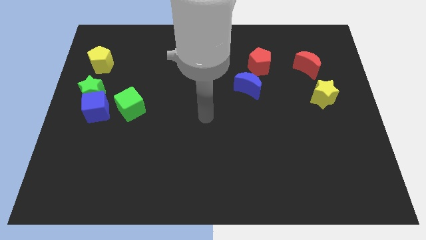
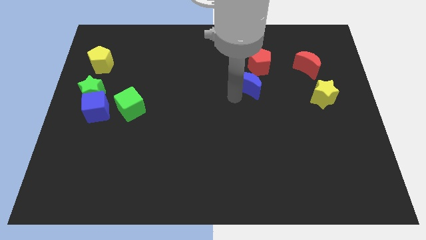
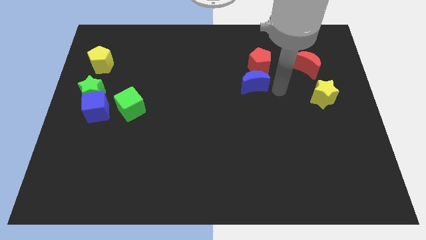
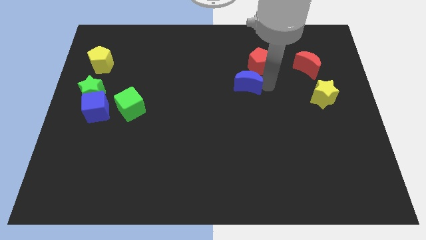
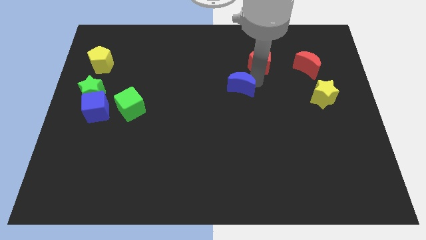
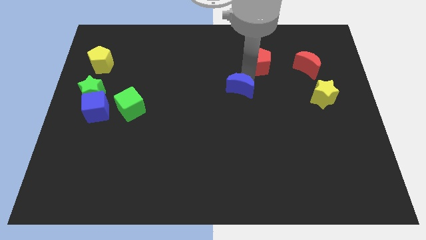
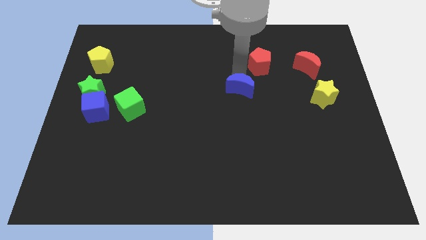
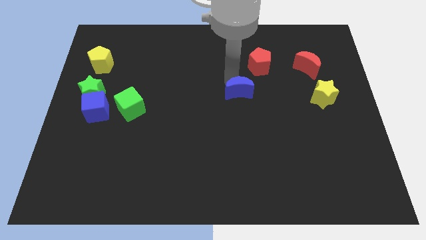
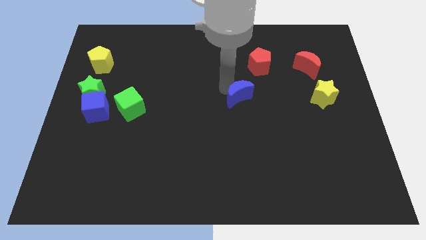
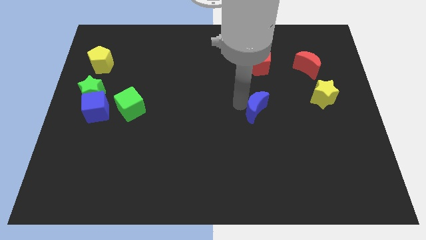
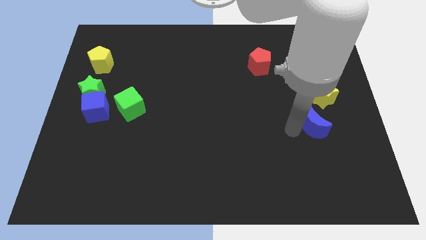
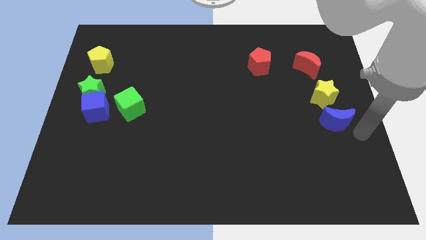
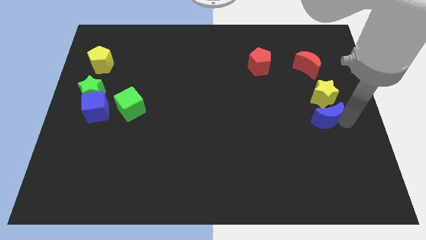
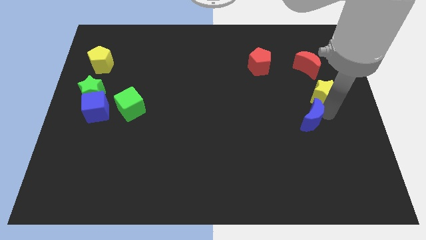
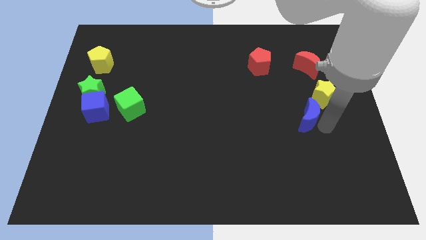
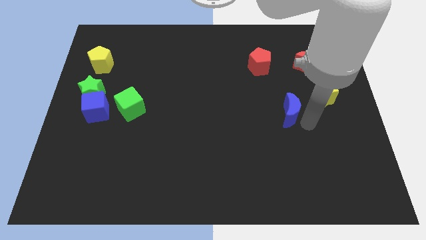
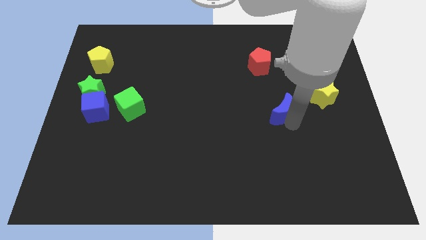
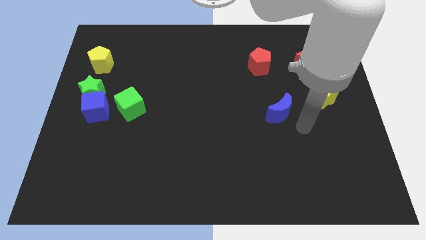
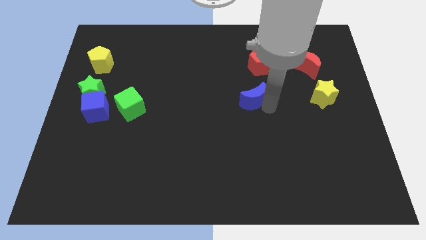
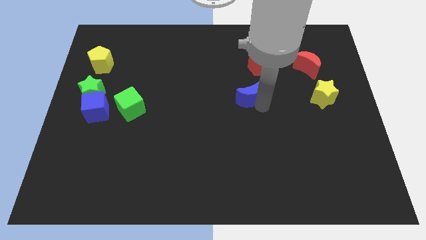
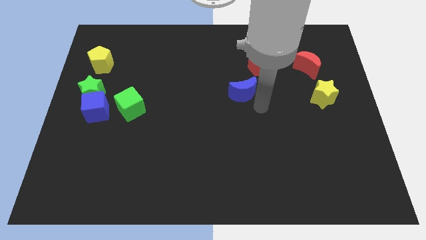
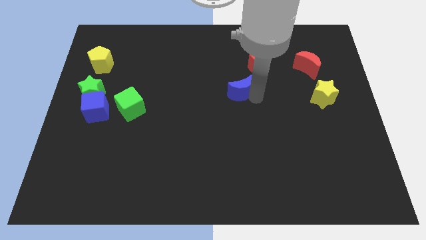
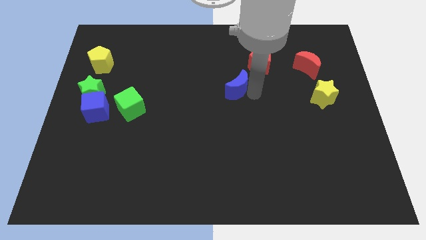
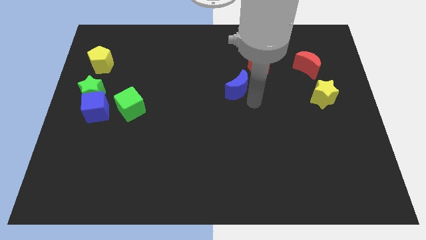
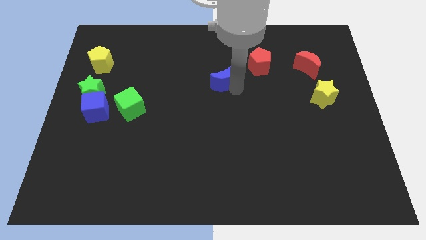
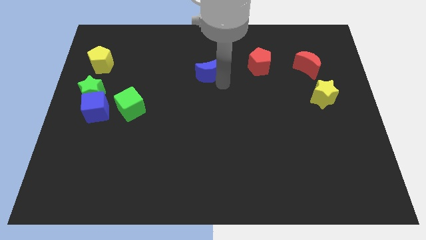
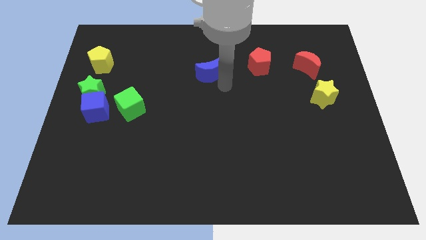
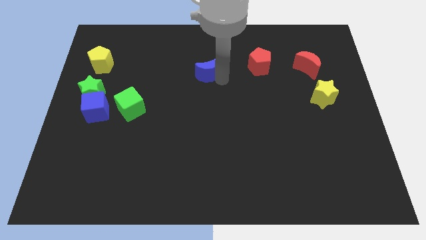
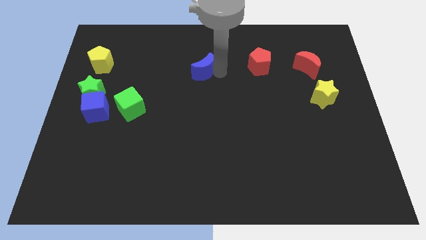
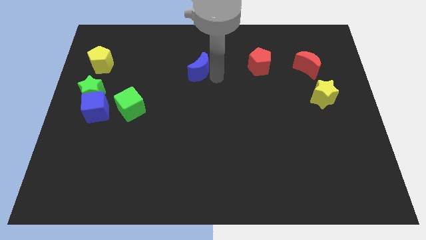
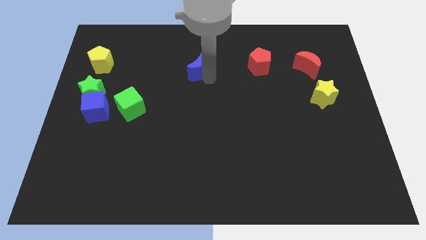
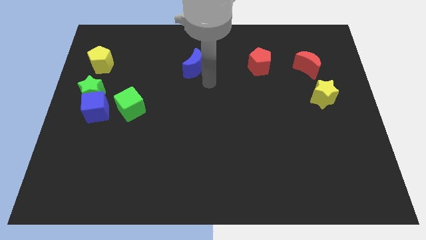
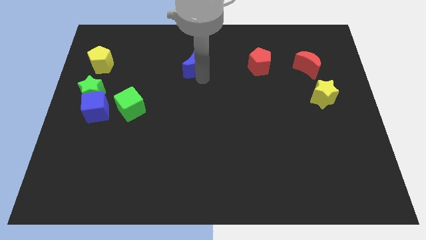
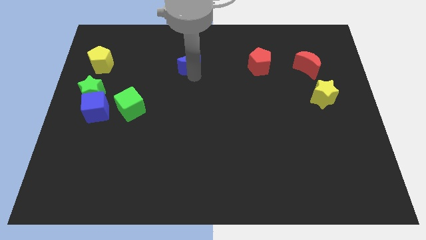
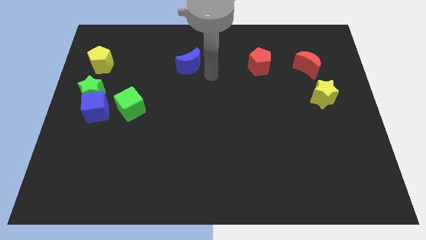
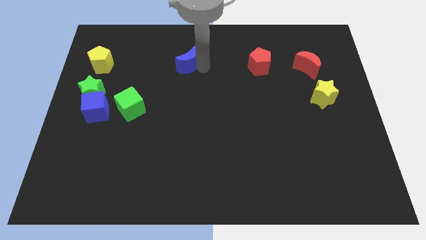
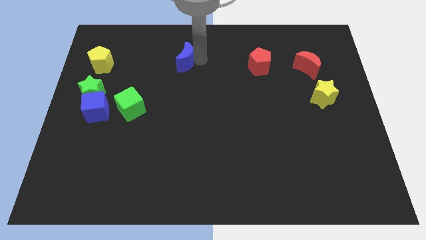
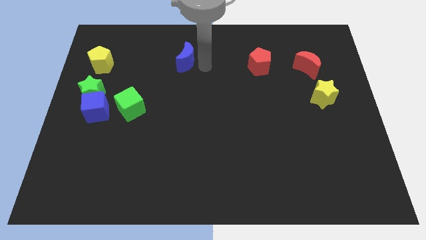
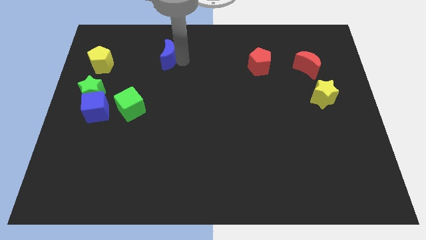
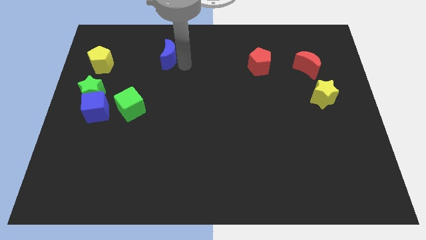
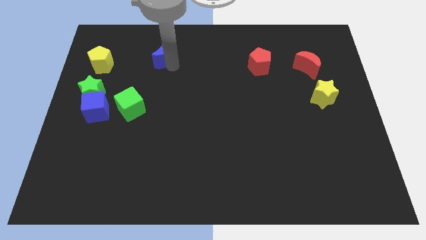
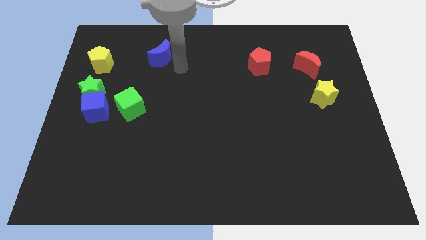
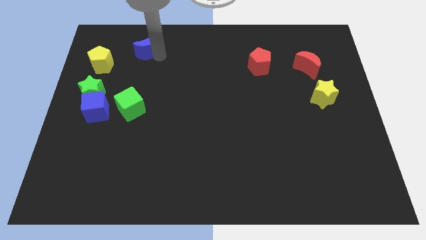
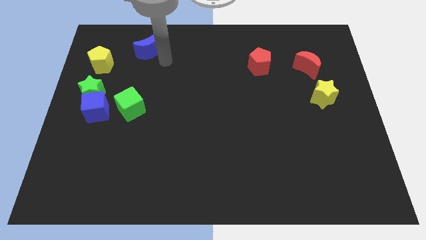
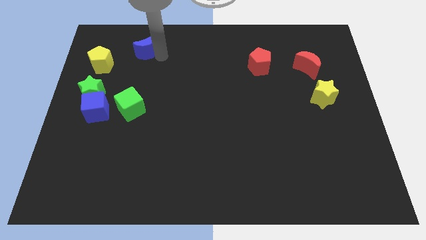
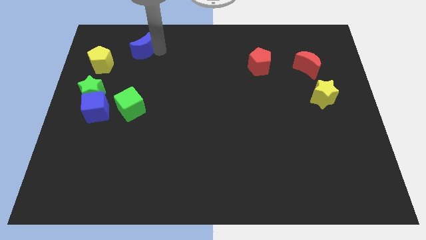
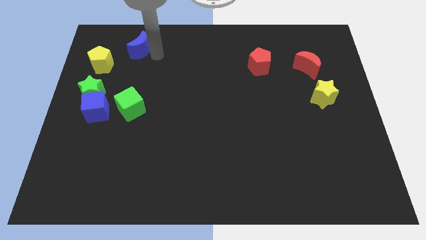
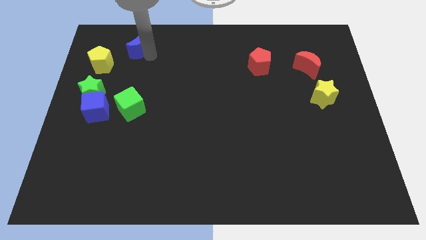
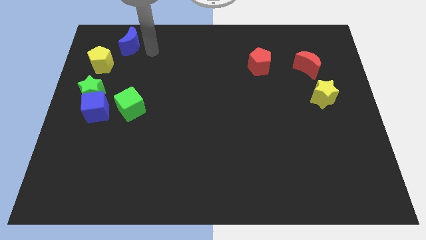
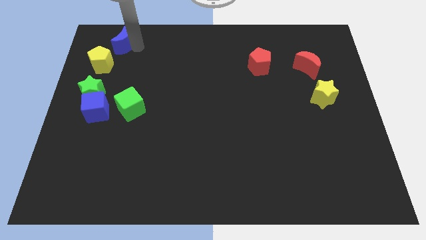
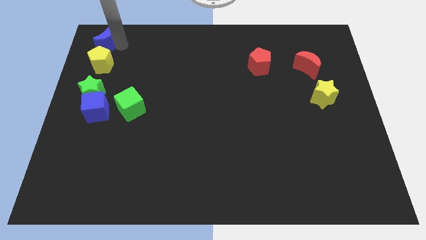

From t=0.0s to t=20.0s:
push the blue moon to the top left corner

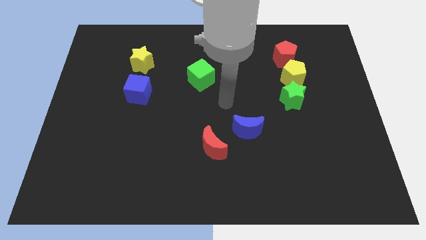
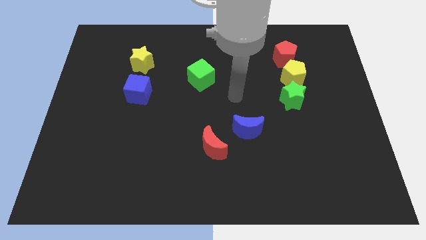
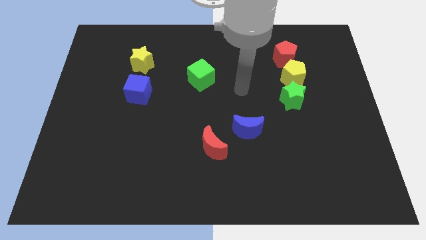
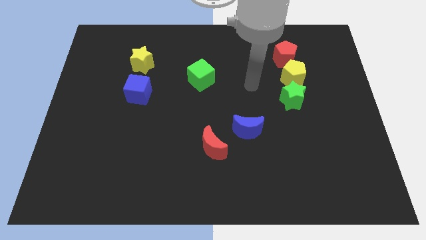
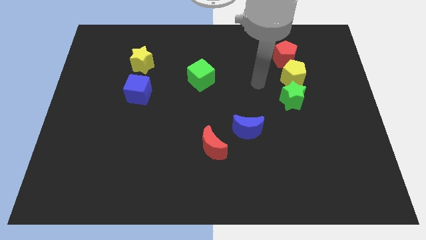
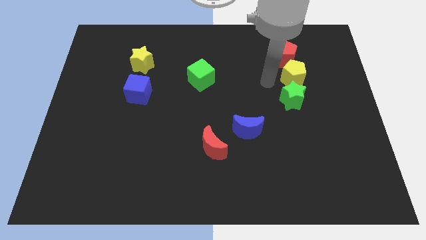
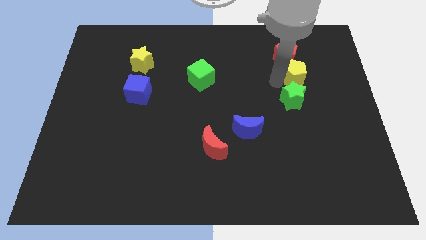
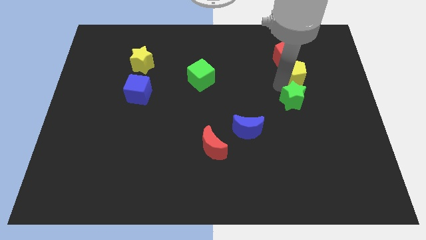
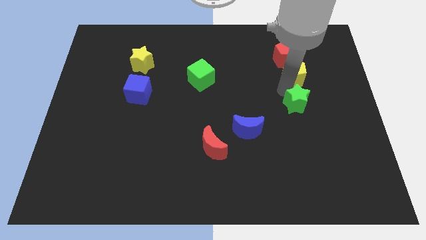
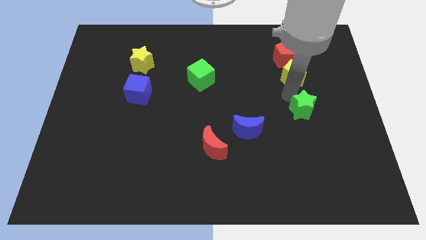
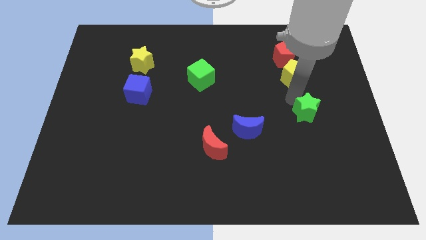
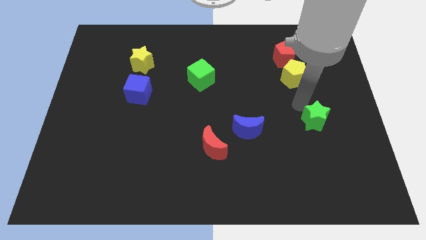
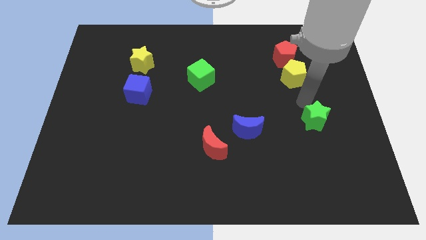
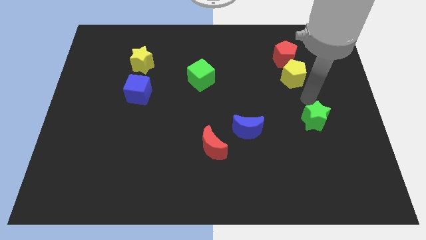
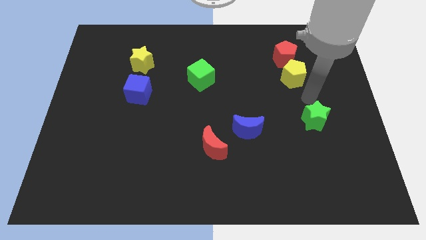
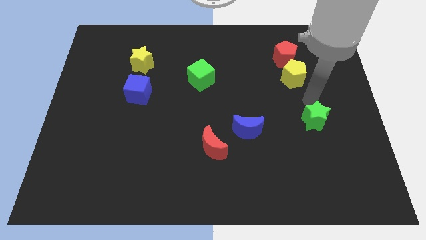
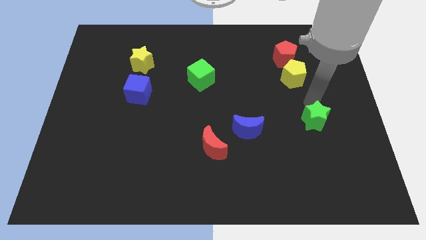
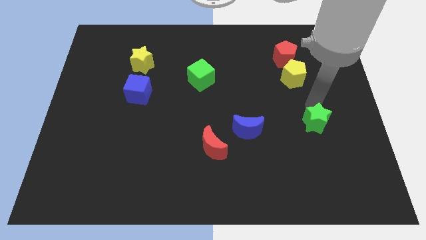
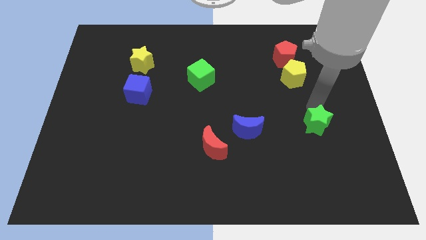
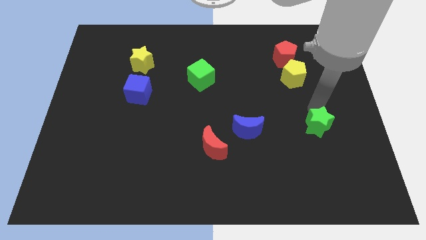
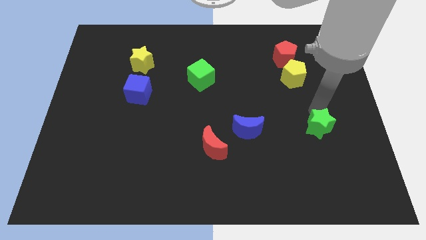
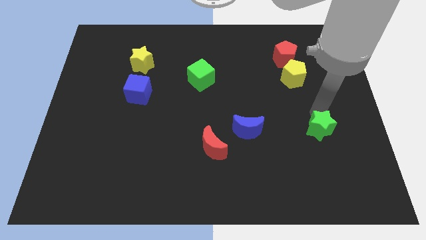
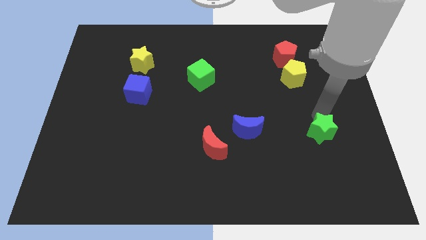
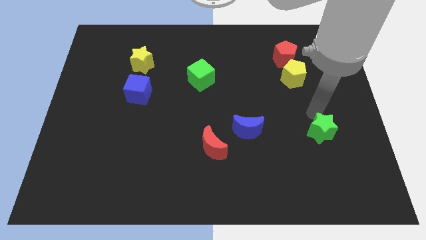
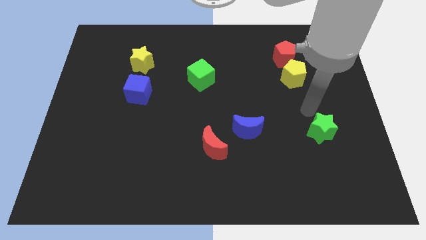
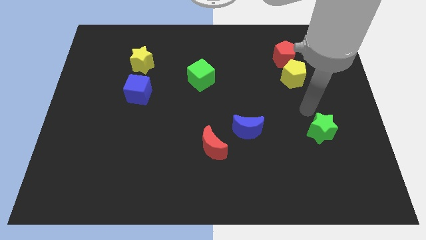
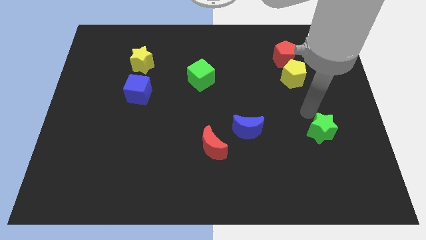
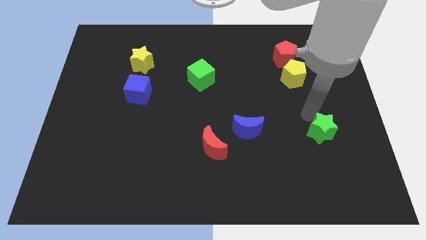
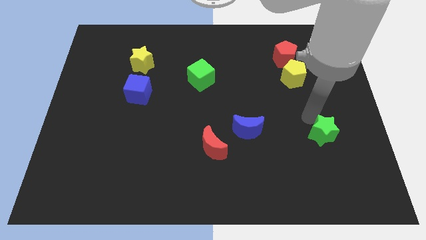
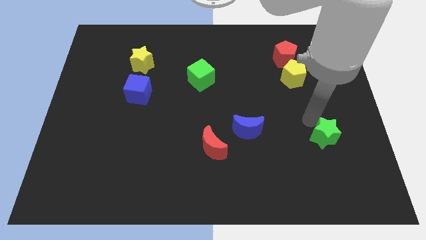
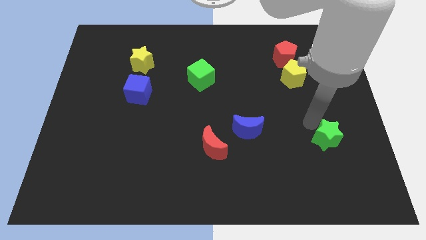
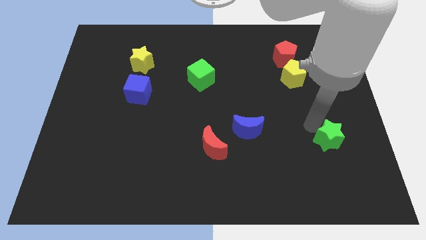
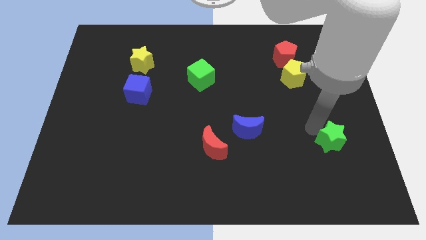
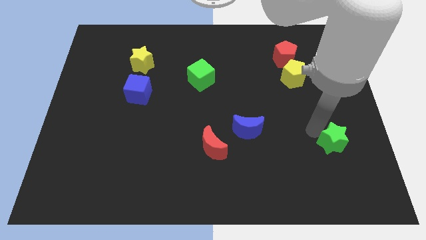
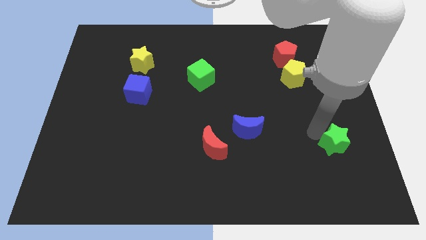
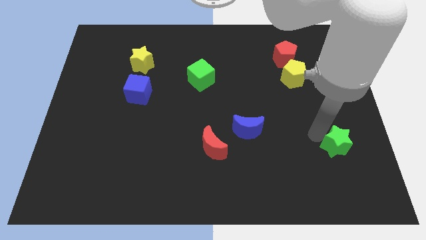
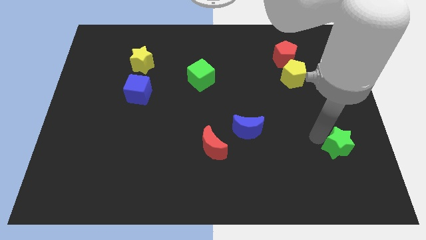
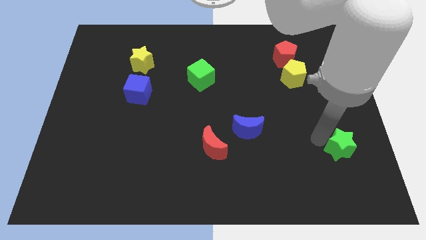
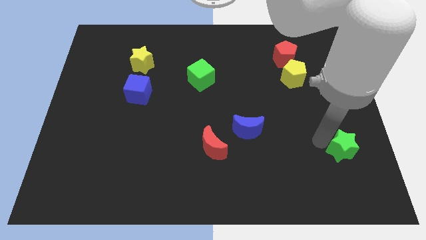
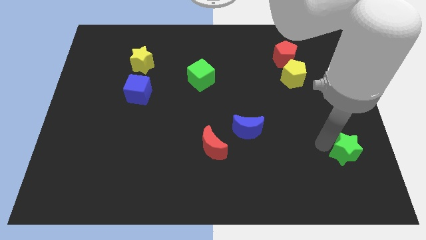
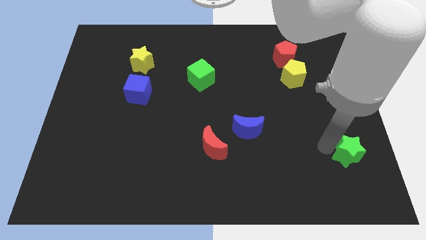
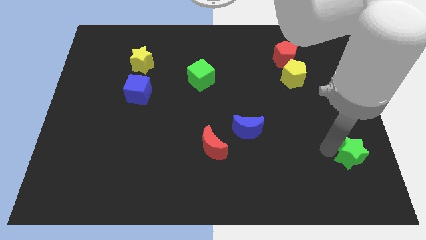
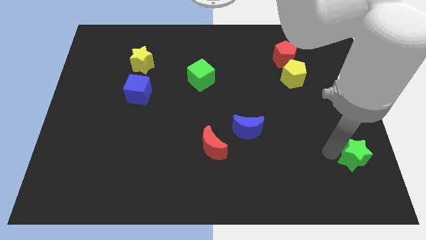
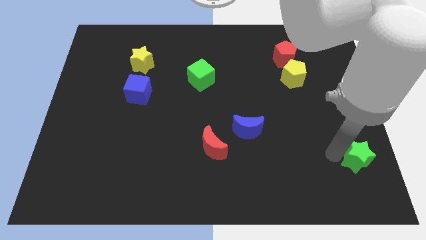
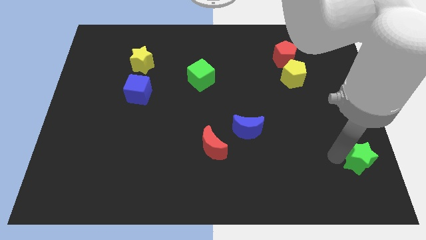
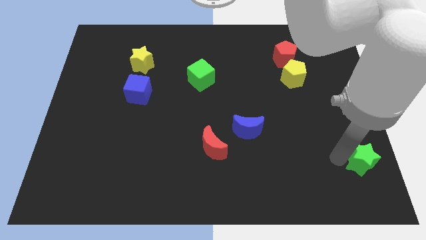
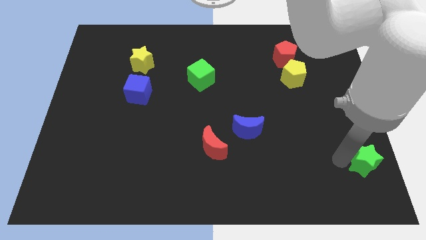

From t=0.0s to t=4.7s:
put the green star to the bottom right
